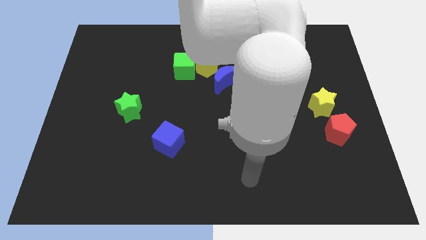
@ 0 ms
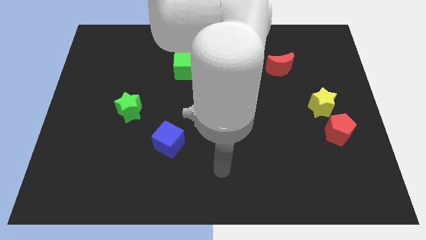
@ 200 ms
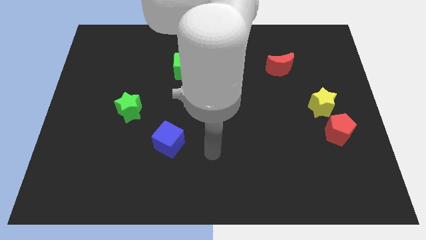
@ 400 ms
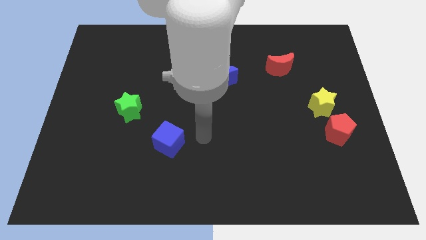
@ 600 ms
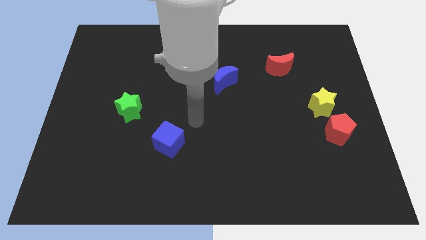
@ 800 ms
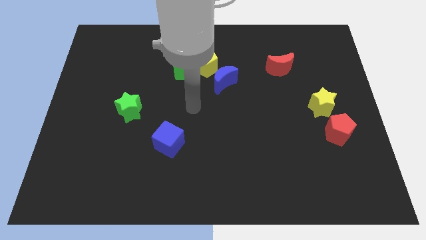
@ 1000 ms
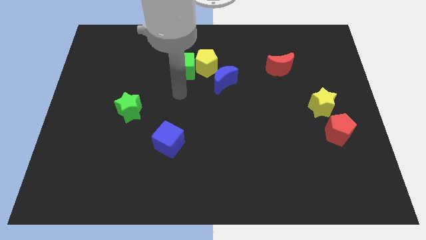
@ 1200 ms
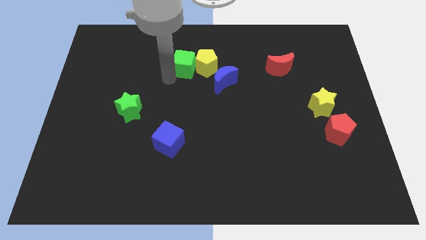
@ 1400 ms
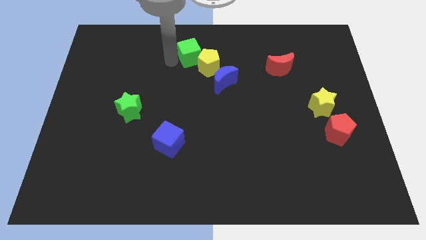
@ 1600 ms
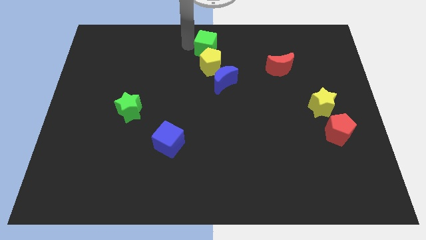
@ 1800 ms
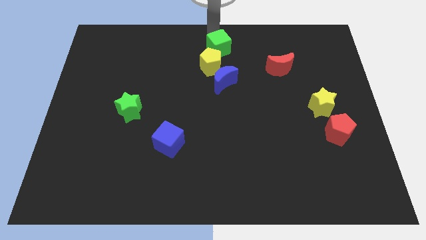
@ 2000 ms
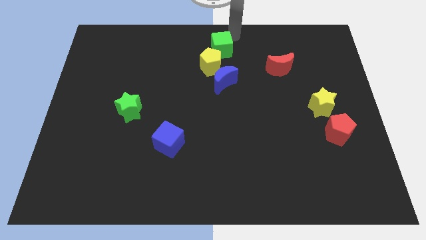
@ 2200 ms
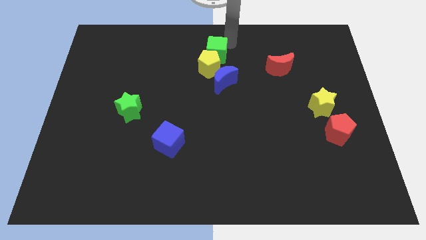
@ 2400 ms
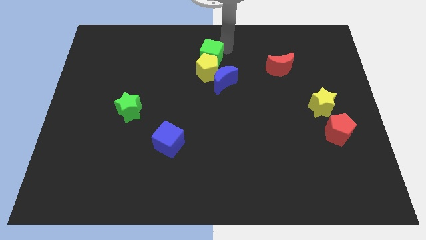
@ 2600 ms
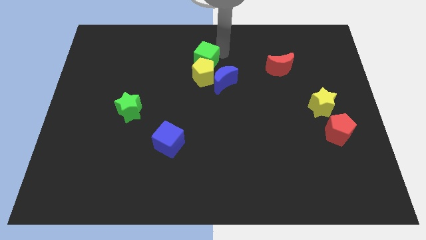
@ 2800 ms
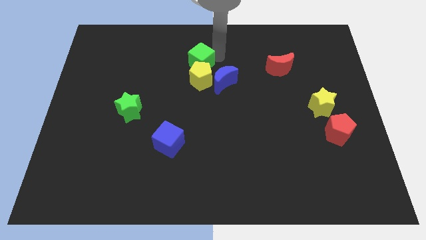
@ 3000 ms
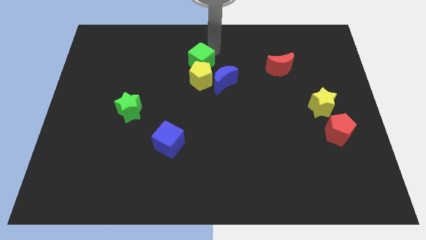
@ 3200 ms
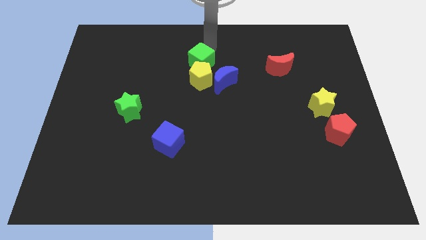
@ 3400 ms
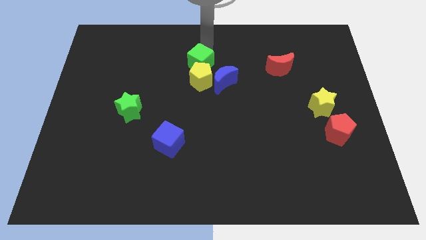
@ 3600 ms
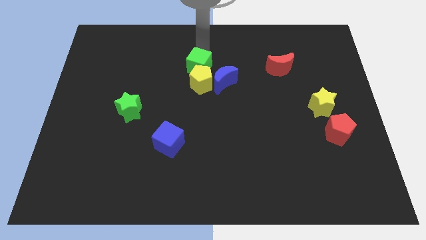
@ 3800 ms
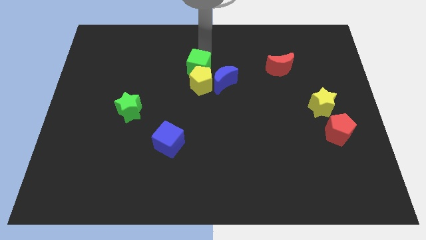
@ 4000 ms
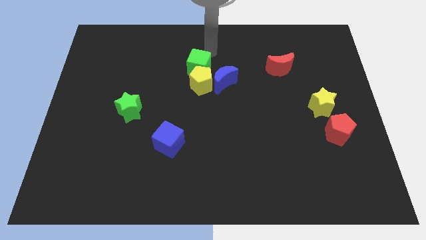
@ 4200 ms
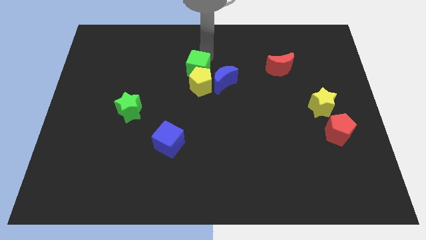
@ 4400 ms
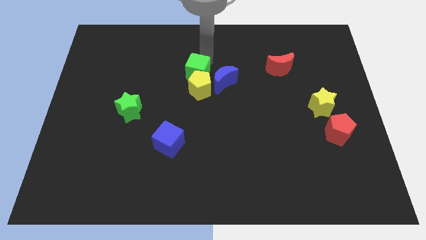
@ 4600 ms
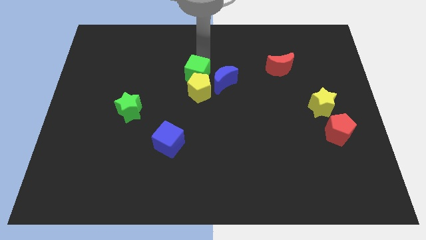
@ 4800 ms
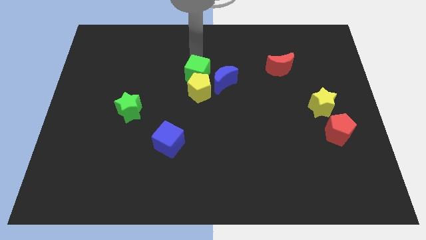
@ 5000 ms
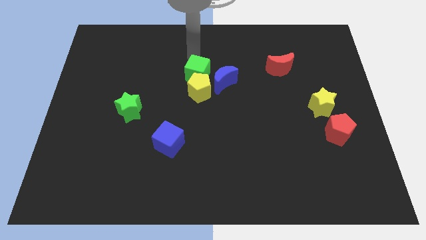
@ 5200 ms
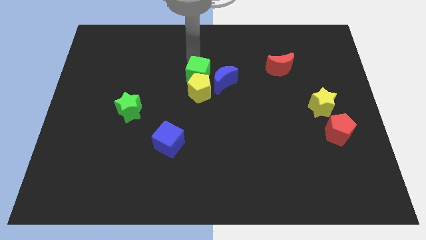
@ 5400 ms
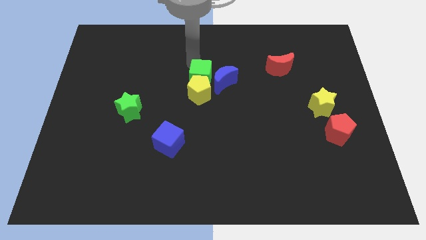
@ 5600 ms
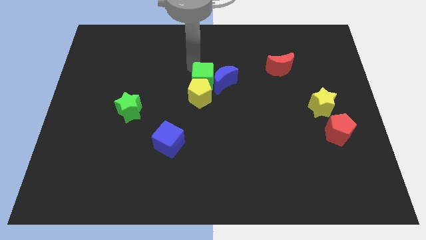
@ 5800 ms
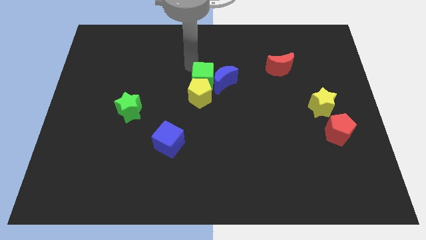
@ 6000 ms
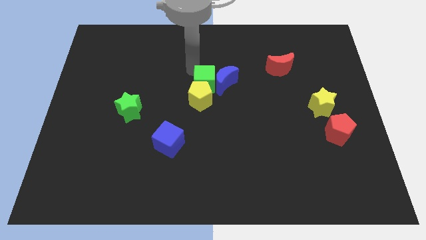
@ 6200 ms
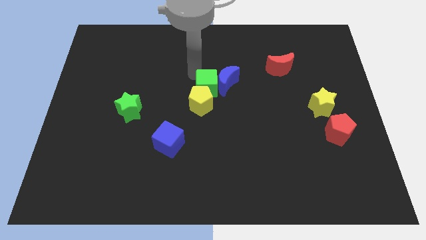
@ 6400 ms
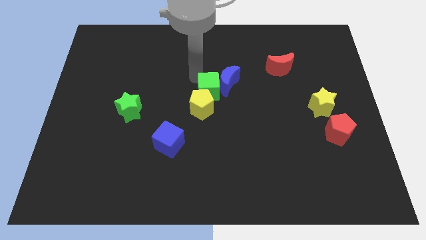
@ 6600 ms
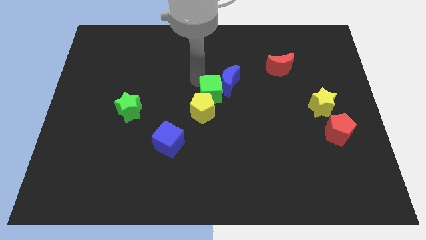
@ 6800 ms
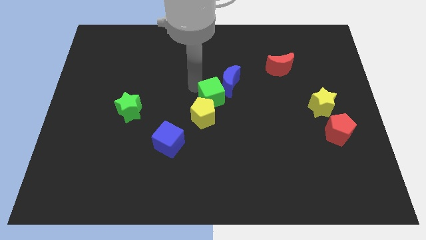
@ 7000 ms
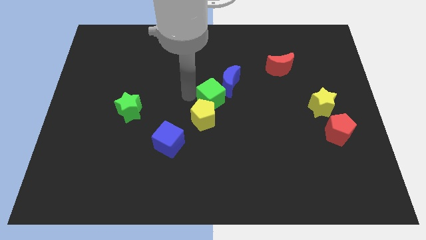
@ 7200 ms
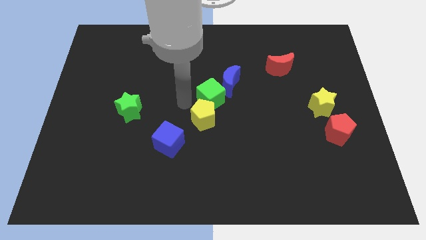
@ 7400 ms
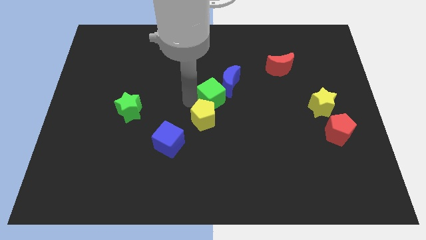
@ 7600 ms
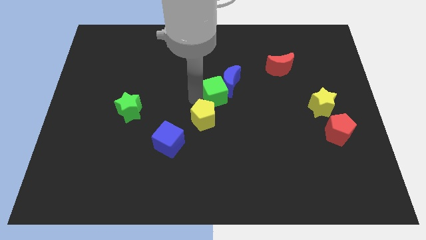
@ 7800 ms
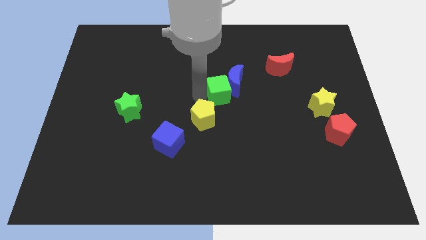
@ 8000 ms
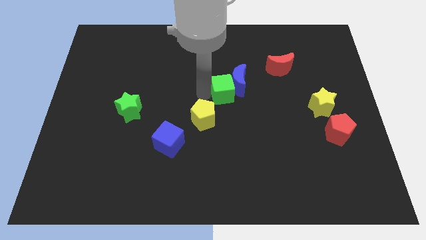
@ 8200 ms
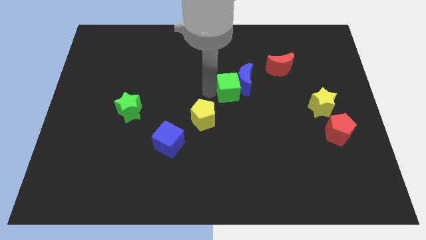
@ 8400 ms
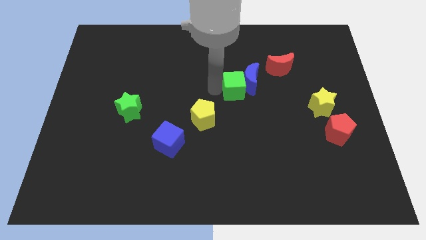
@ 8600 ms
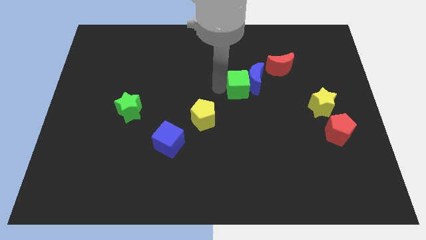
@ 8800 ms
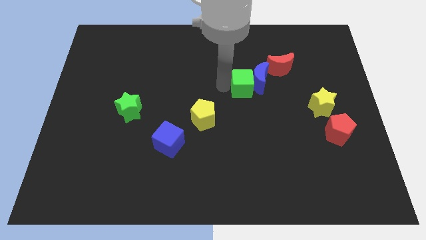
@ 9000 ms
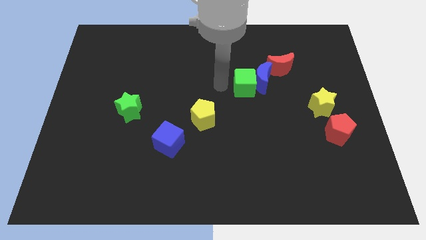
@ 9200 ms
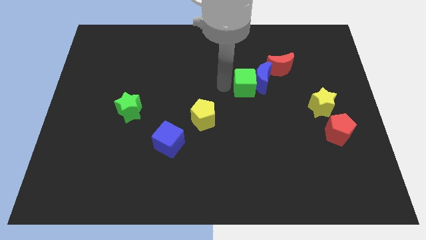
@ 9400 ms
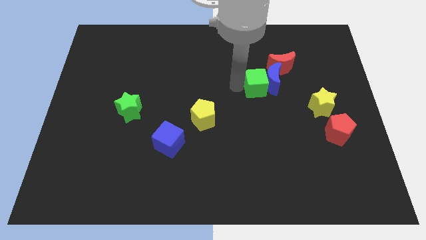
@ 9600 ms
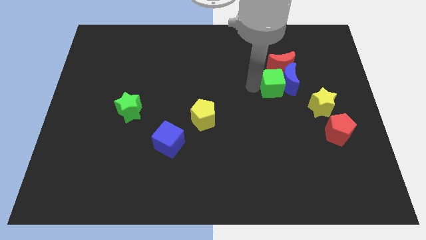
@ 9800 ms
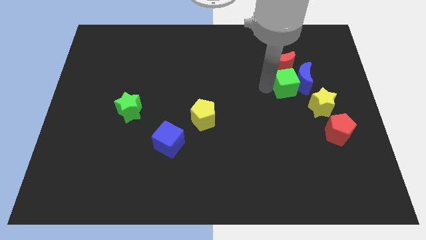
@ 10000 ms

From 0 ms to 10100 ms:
move the green cube diagonally down and to the right of the red moon

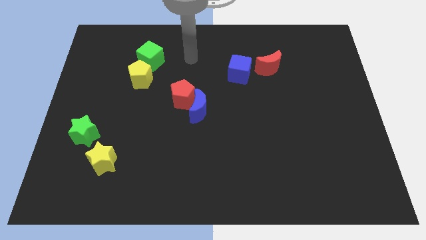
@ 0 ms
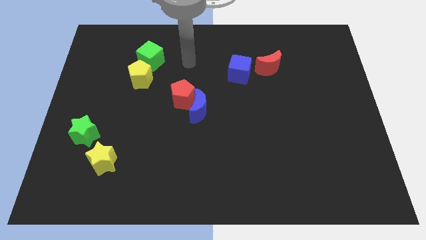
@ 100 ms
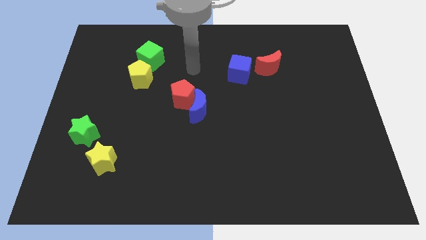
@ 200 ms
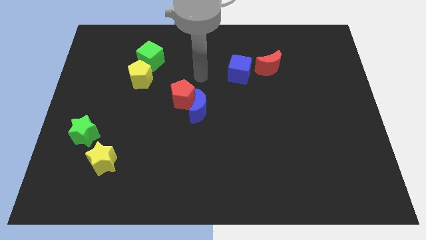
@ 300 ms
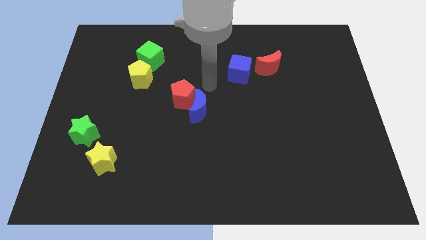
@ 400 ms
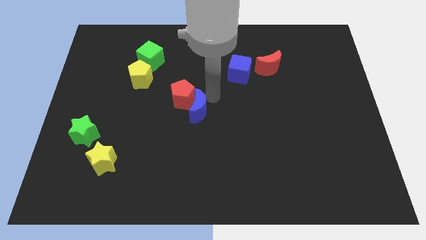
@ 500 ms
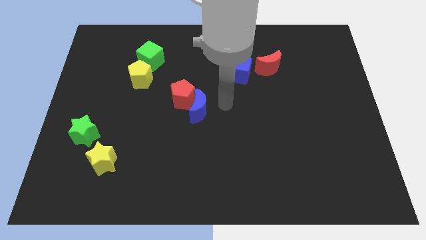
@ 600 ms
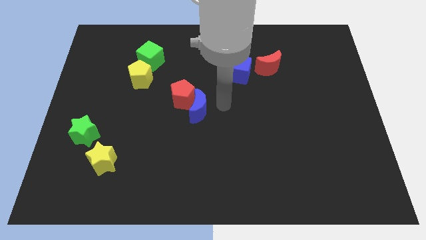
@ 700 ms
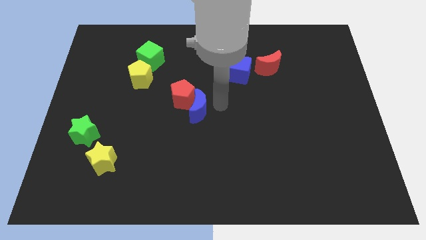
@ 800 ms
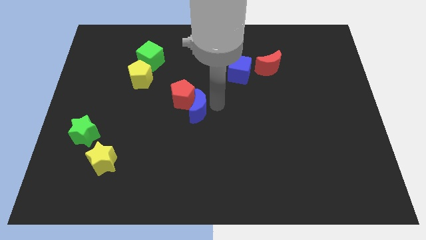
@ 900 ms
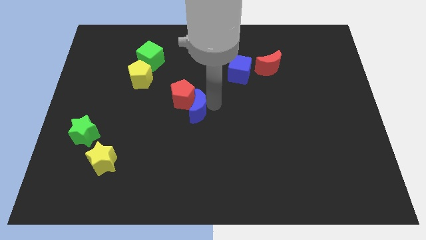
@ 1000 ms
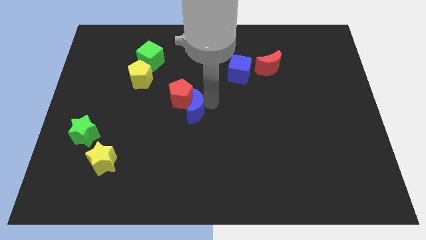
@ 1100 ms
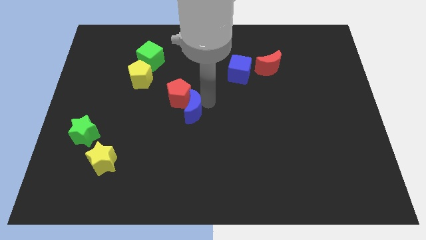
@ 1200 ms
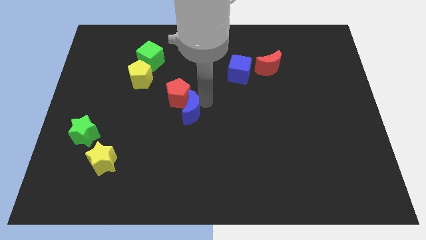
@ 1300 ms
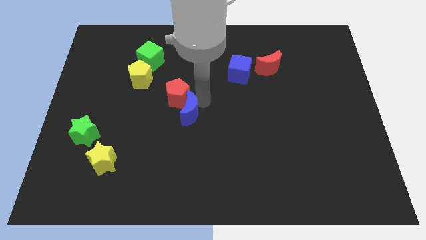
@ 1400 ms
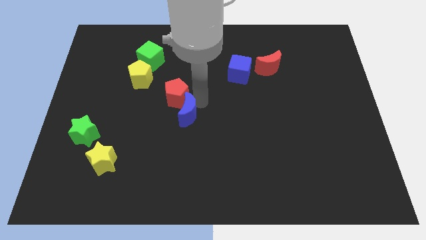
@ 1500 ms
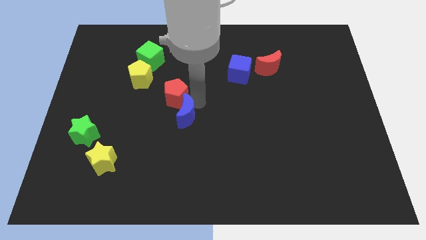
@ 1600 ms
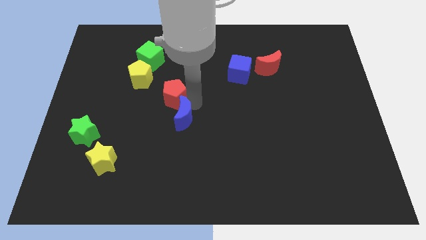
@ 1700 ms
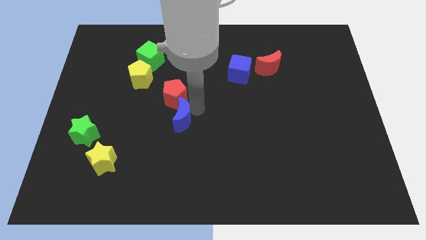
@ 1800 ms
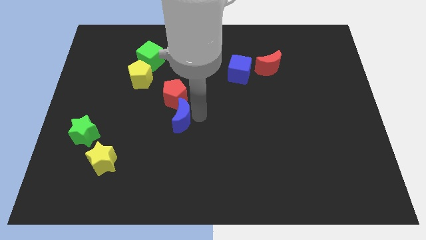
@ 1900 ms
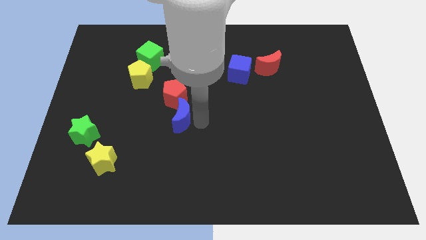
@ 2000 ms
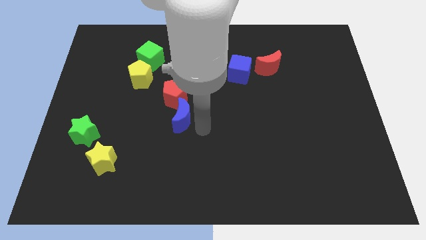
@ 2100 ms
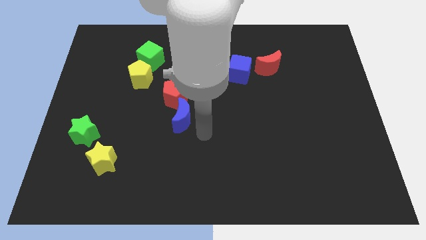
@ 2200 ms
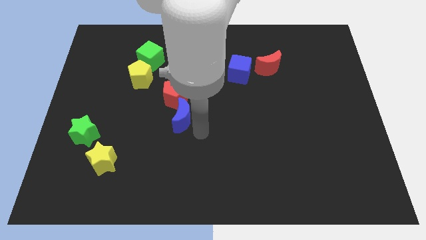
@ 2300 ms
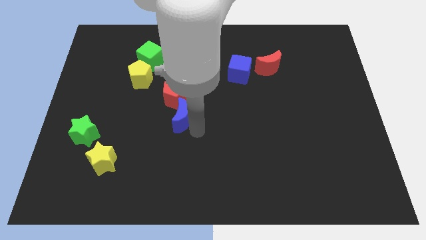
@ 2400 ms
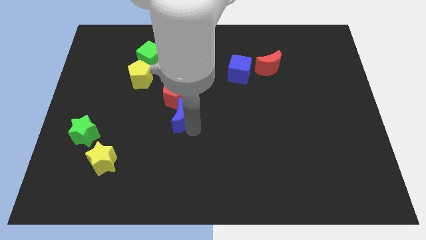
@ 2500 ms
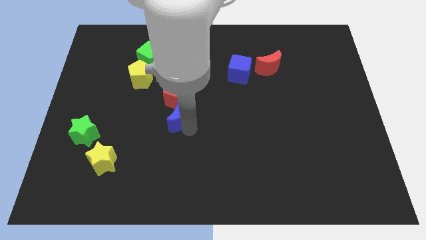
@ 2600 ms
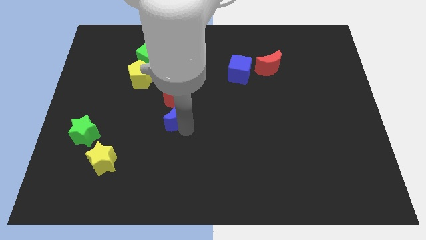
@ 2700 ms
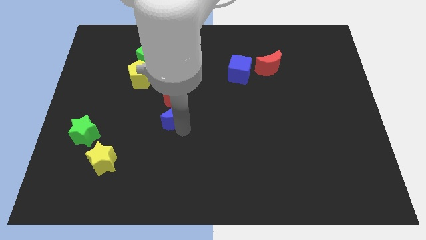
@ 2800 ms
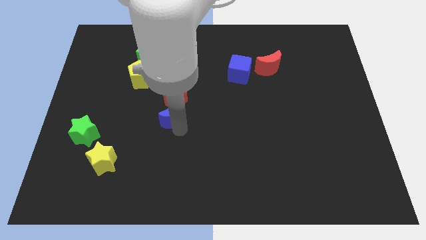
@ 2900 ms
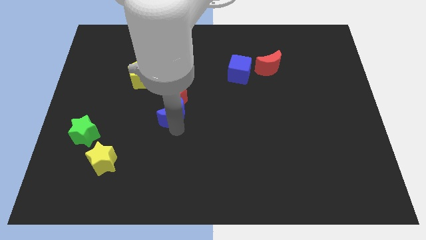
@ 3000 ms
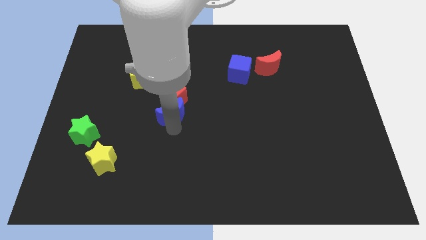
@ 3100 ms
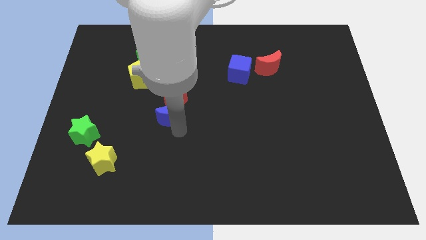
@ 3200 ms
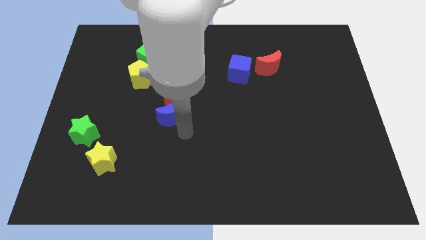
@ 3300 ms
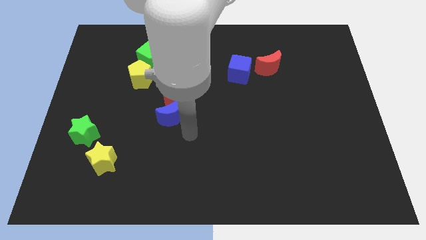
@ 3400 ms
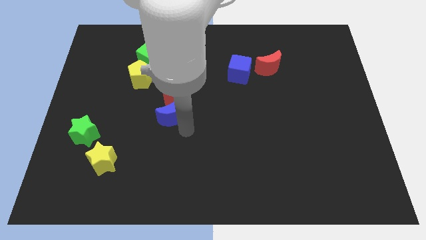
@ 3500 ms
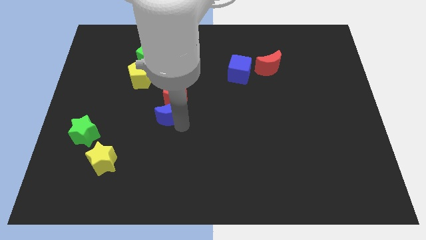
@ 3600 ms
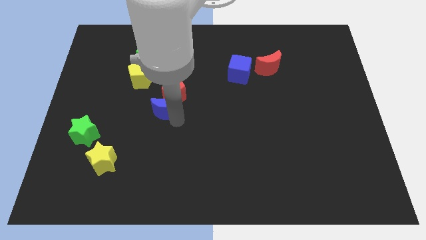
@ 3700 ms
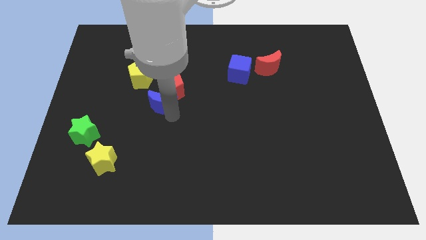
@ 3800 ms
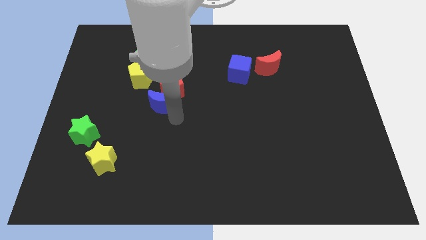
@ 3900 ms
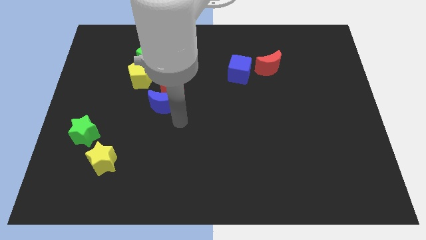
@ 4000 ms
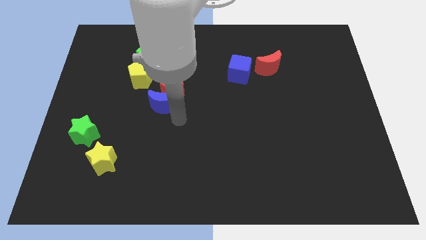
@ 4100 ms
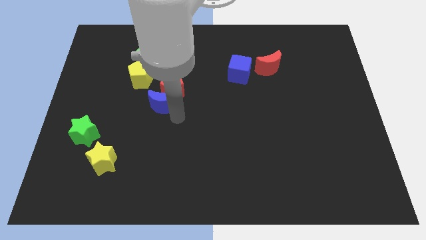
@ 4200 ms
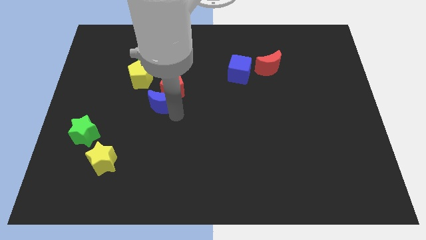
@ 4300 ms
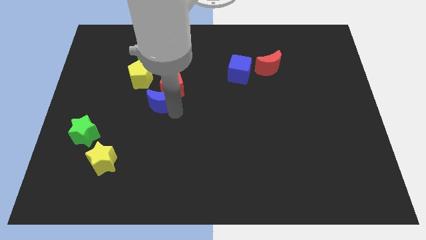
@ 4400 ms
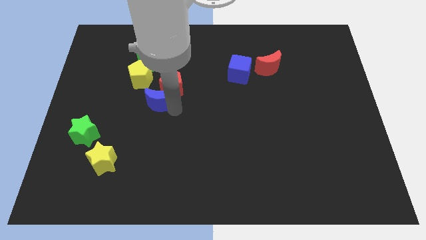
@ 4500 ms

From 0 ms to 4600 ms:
push the blue moon to the bottom side of the green cube
